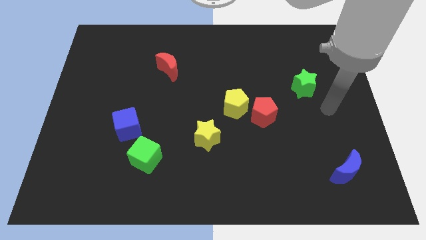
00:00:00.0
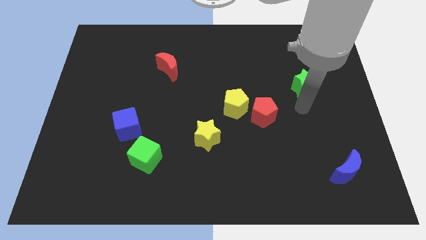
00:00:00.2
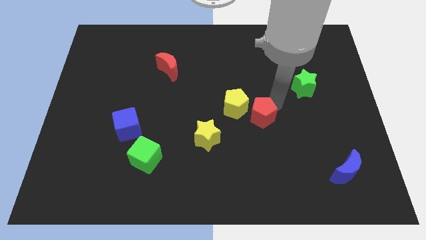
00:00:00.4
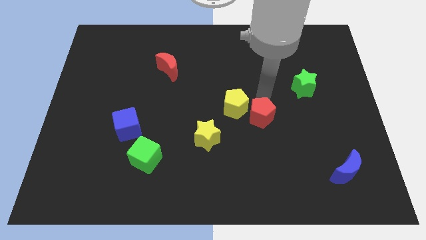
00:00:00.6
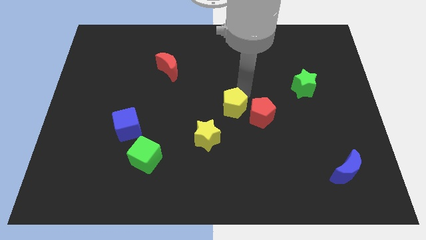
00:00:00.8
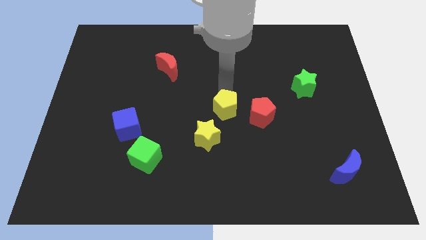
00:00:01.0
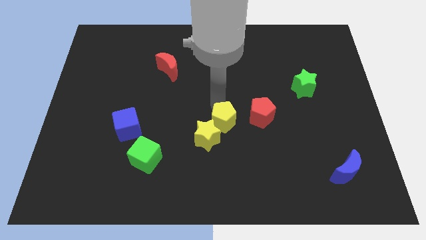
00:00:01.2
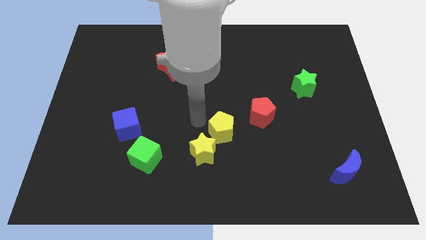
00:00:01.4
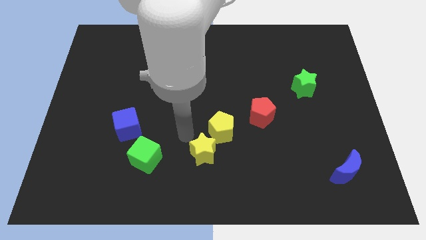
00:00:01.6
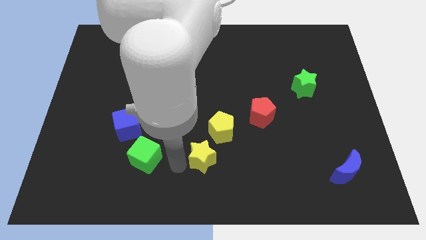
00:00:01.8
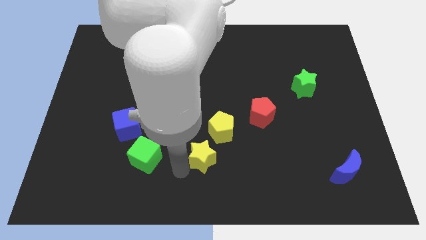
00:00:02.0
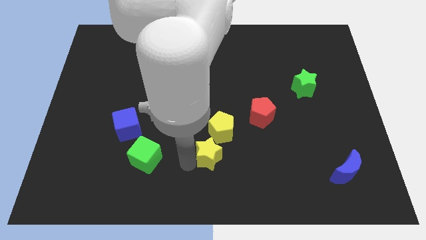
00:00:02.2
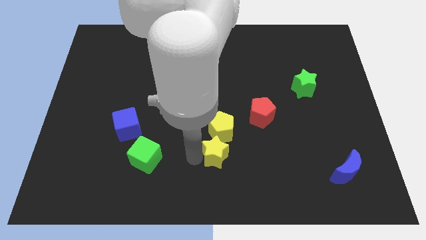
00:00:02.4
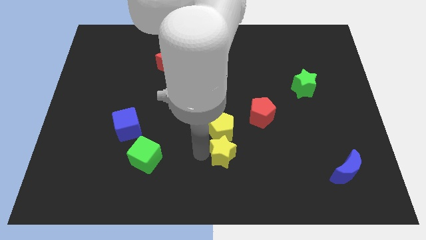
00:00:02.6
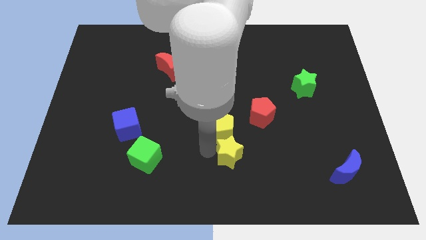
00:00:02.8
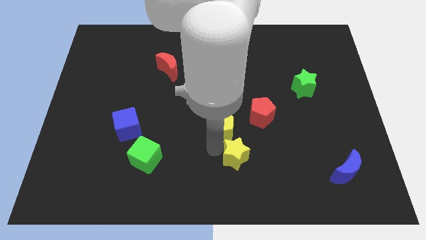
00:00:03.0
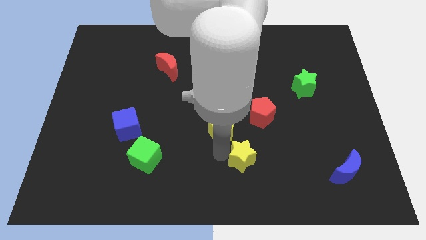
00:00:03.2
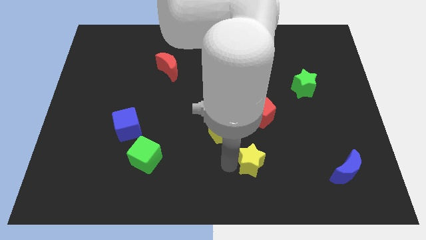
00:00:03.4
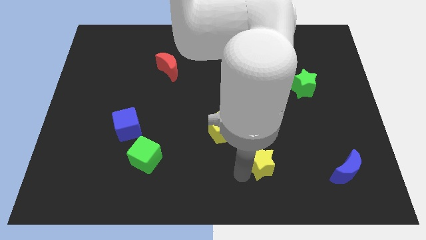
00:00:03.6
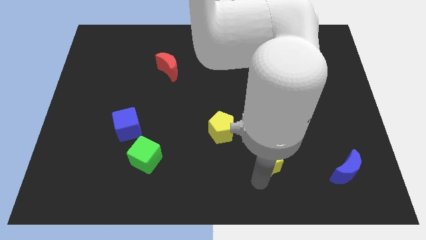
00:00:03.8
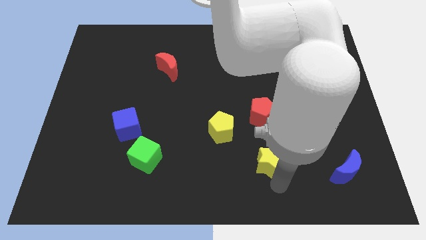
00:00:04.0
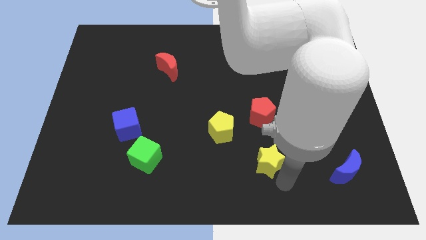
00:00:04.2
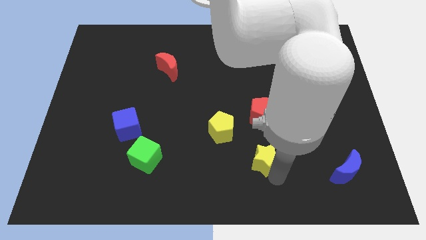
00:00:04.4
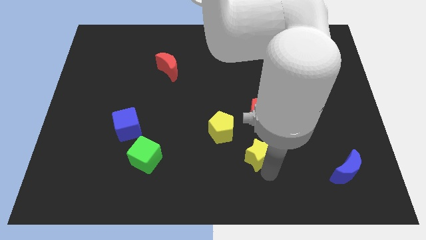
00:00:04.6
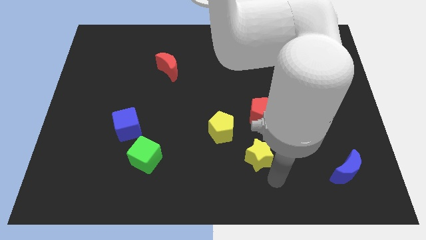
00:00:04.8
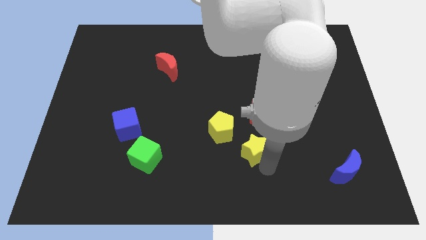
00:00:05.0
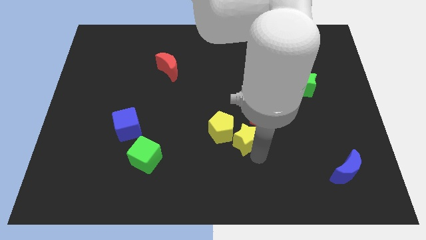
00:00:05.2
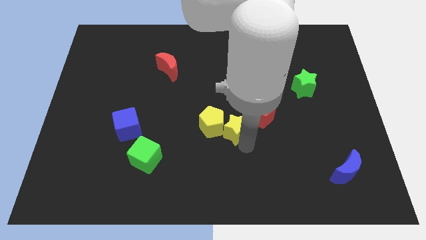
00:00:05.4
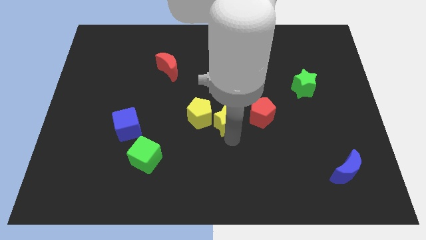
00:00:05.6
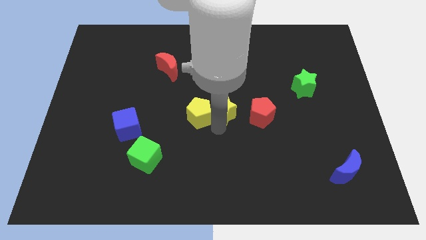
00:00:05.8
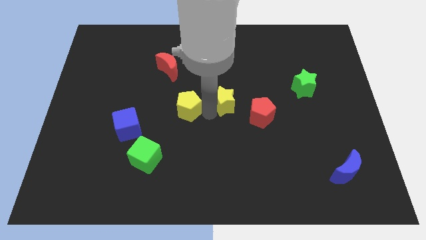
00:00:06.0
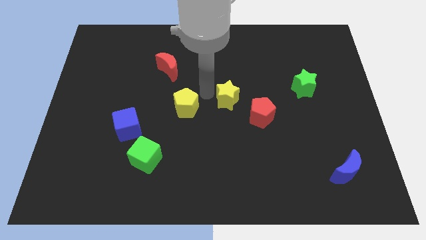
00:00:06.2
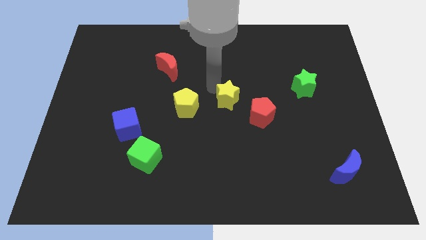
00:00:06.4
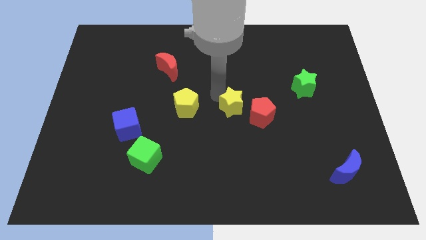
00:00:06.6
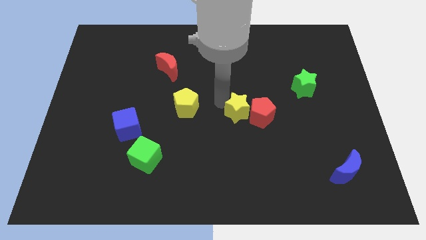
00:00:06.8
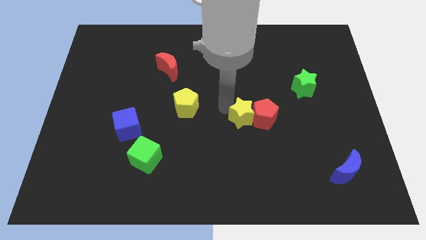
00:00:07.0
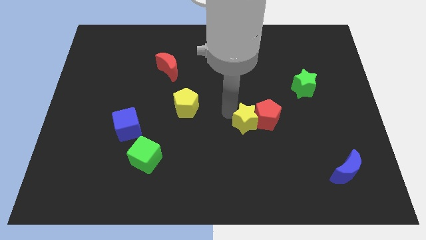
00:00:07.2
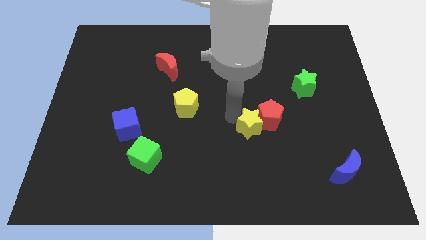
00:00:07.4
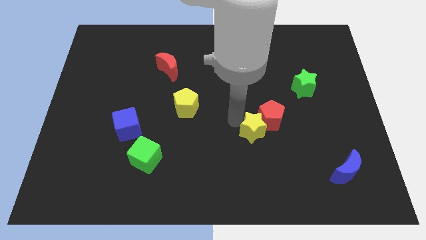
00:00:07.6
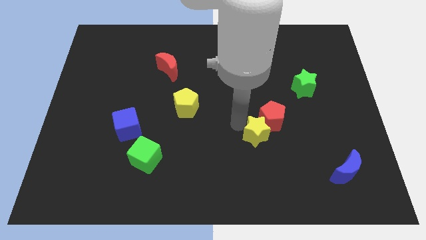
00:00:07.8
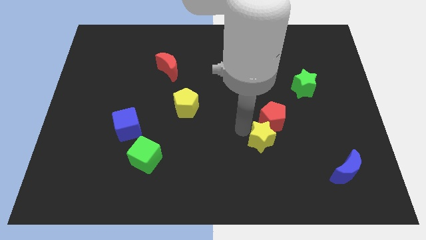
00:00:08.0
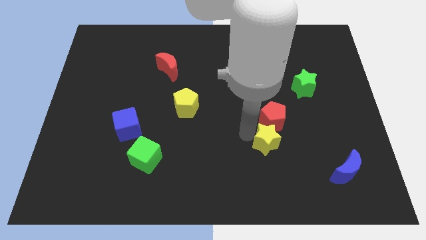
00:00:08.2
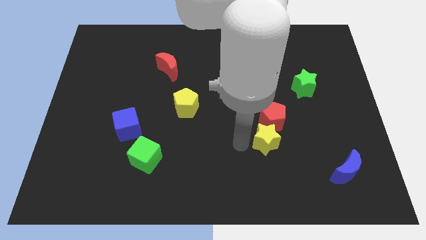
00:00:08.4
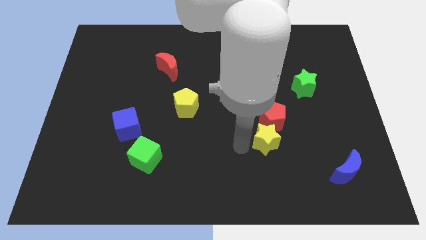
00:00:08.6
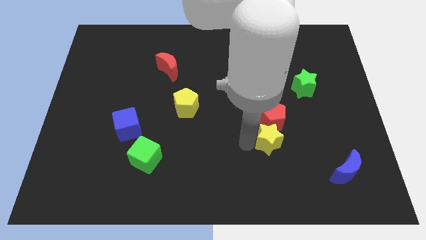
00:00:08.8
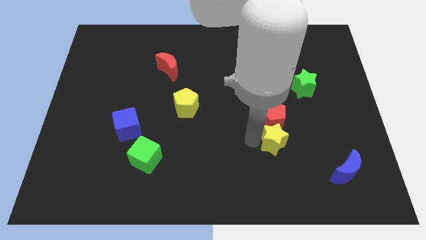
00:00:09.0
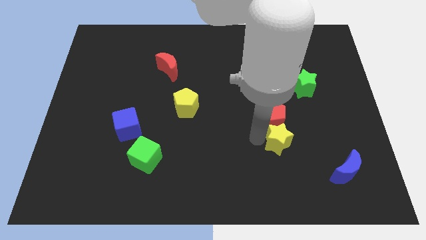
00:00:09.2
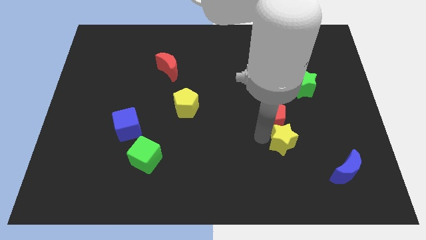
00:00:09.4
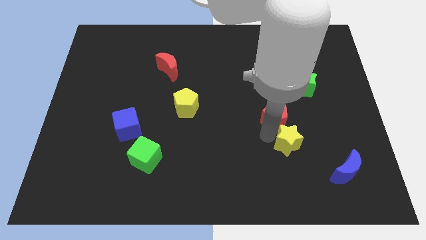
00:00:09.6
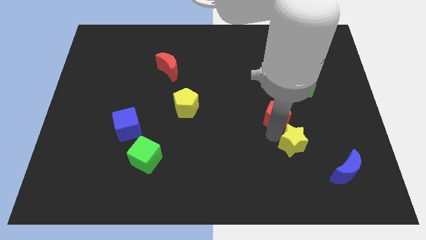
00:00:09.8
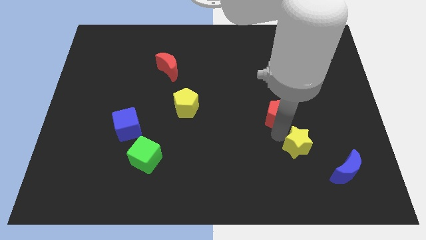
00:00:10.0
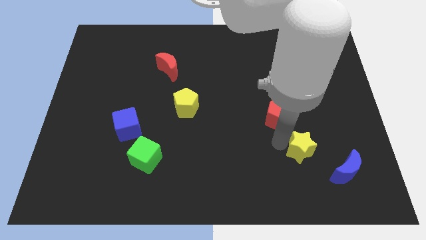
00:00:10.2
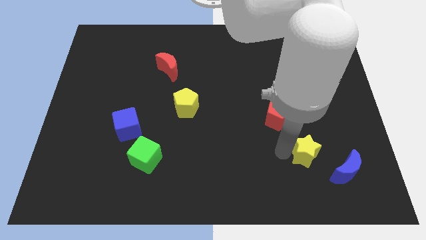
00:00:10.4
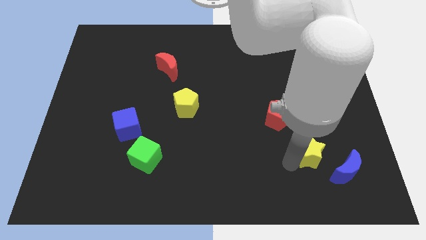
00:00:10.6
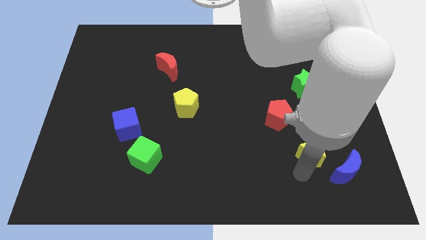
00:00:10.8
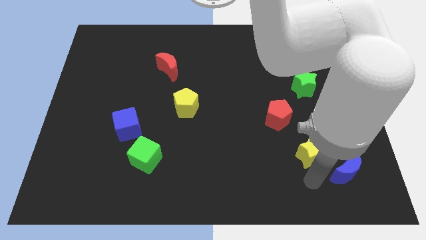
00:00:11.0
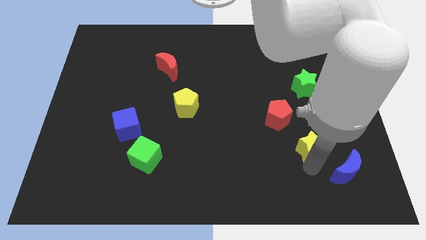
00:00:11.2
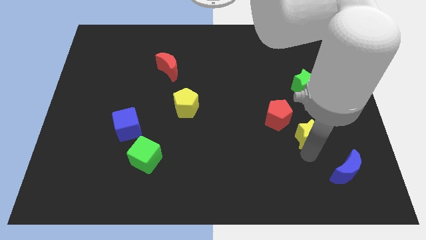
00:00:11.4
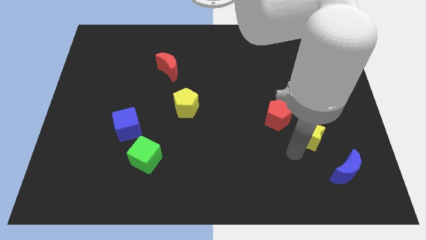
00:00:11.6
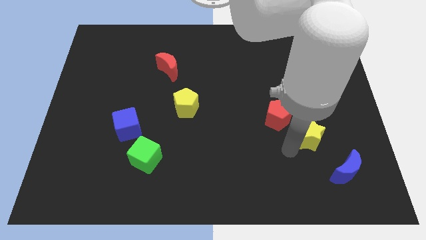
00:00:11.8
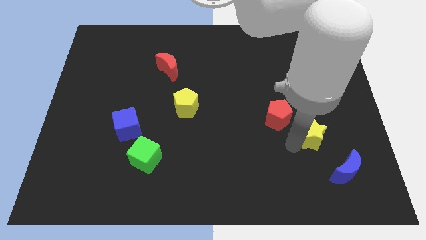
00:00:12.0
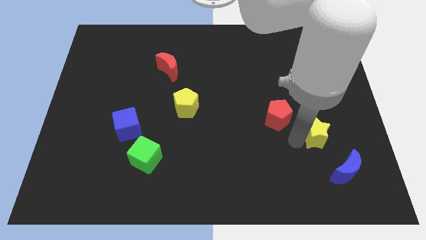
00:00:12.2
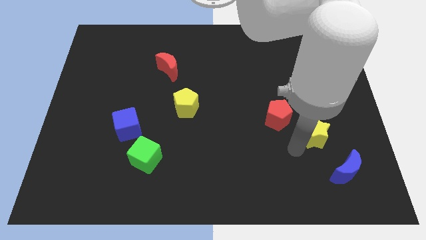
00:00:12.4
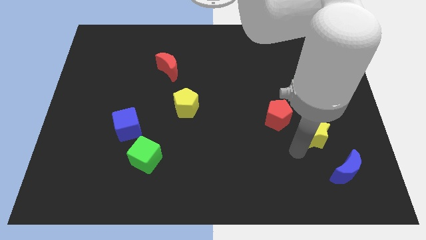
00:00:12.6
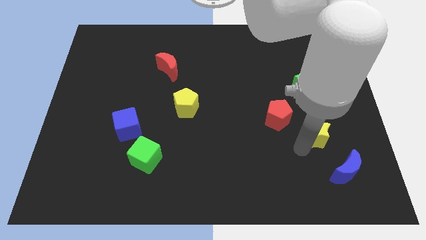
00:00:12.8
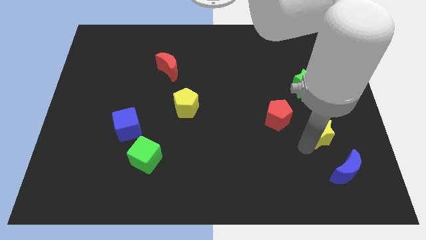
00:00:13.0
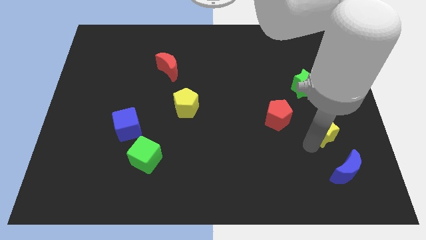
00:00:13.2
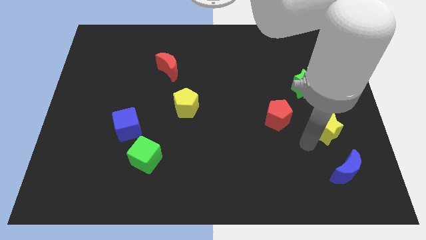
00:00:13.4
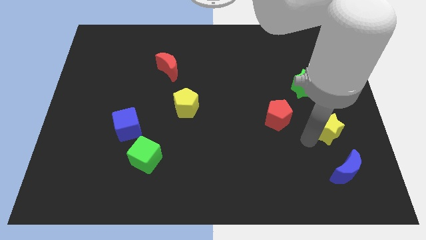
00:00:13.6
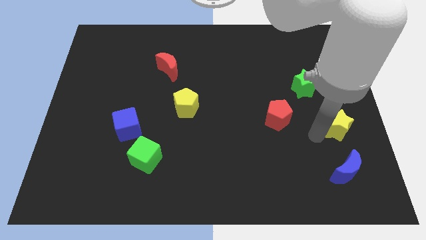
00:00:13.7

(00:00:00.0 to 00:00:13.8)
move the yellow star to the center right
